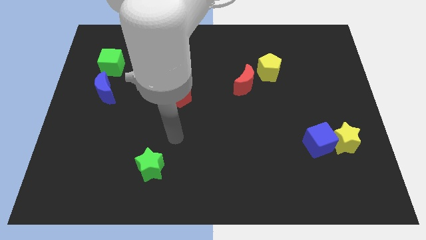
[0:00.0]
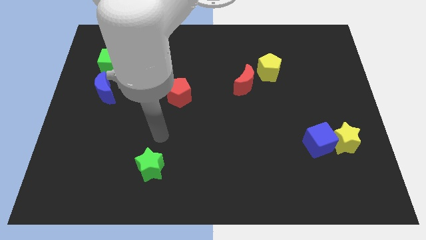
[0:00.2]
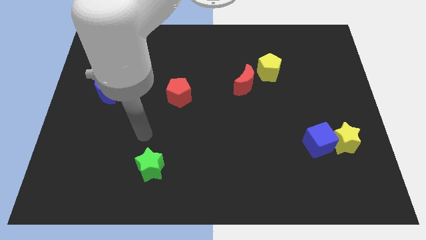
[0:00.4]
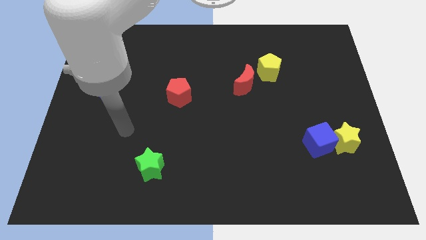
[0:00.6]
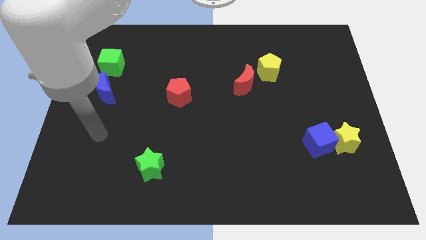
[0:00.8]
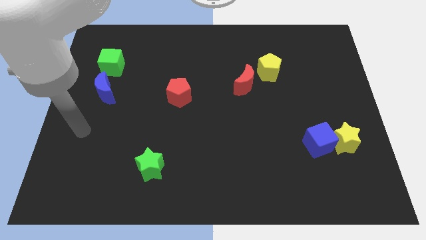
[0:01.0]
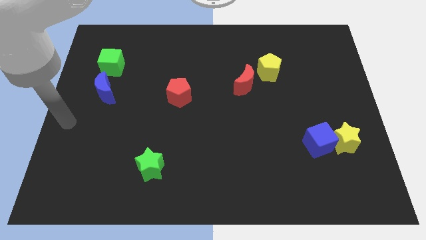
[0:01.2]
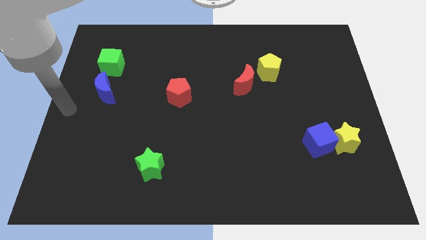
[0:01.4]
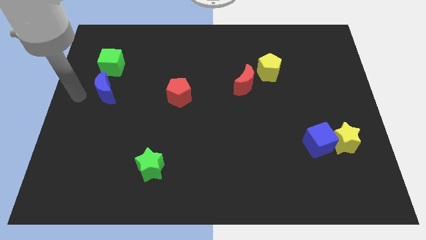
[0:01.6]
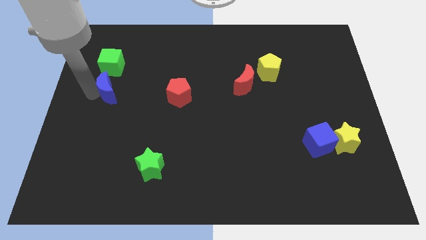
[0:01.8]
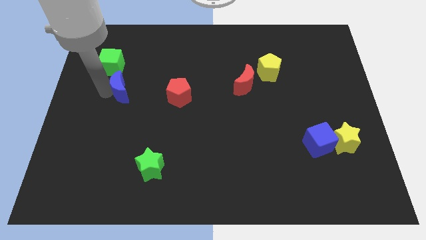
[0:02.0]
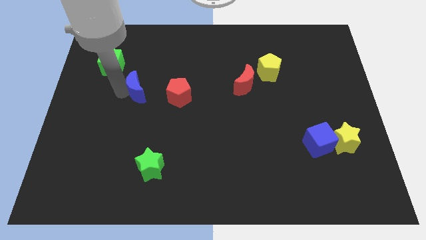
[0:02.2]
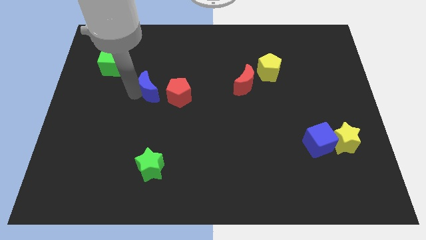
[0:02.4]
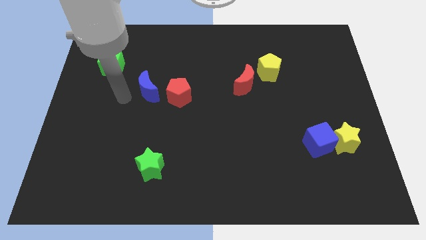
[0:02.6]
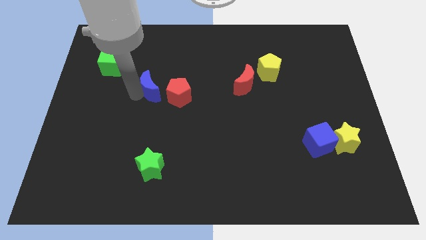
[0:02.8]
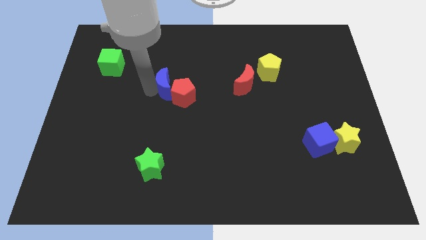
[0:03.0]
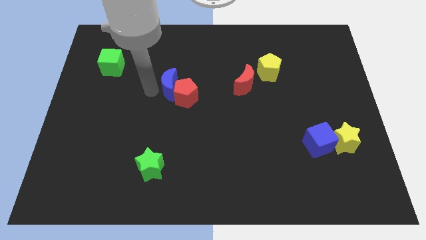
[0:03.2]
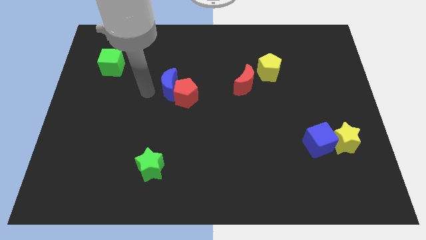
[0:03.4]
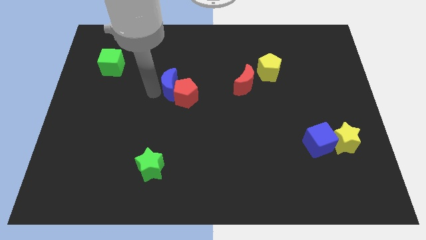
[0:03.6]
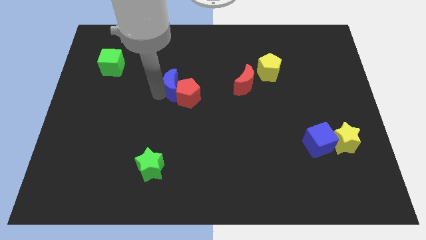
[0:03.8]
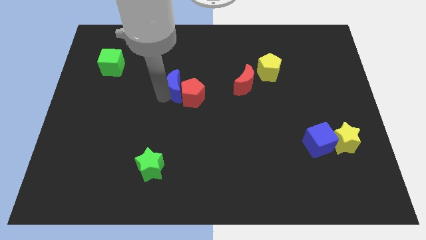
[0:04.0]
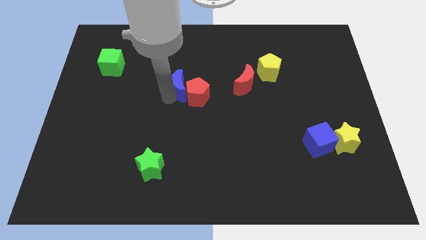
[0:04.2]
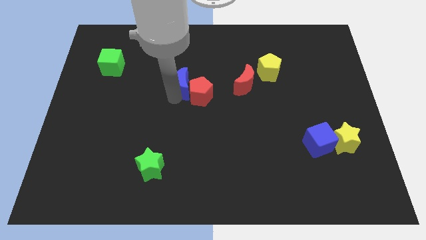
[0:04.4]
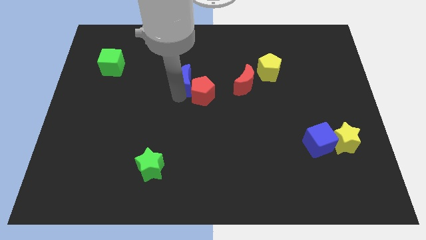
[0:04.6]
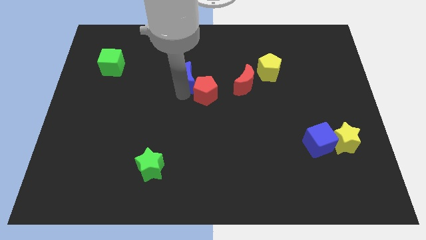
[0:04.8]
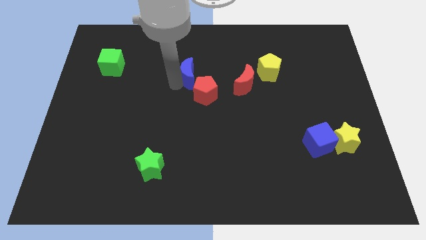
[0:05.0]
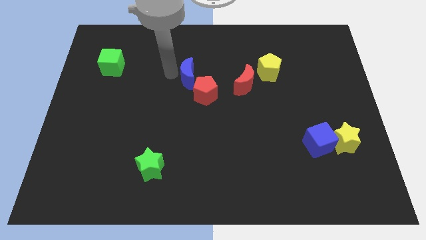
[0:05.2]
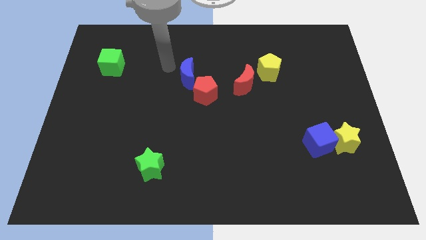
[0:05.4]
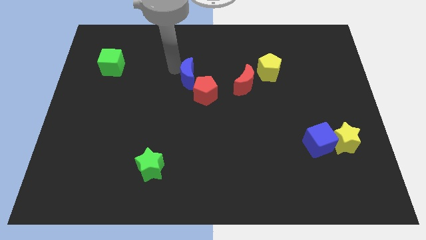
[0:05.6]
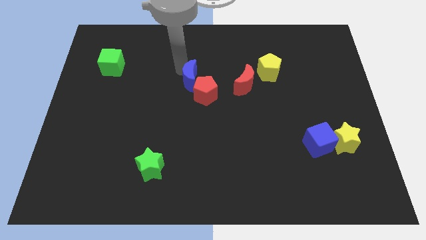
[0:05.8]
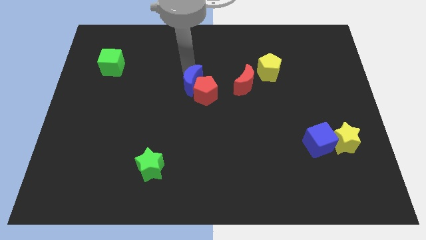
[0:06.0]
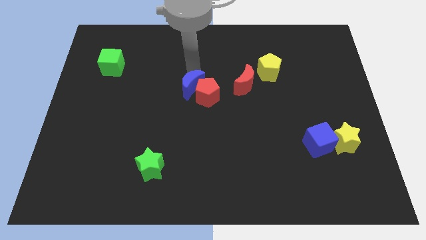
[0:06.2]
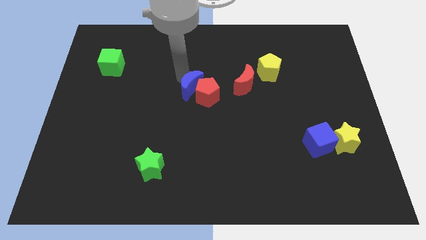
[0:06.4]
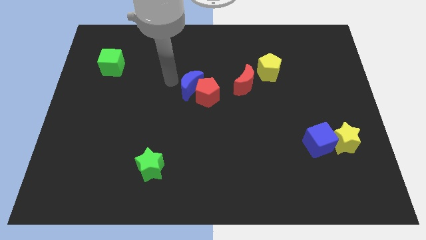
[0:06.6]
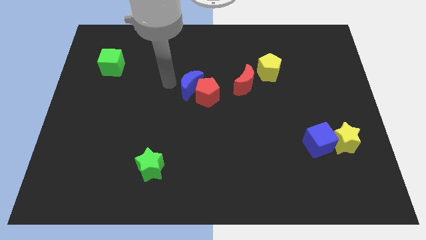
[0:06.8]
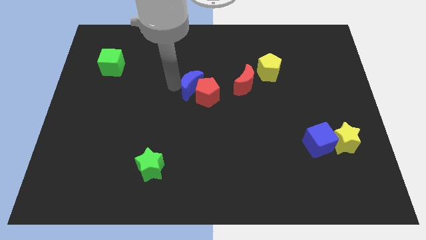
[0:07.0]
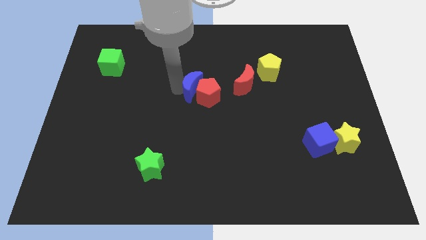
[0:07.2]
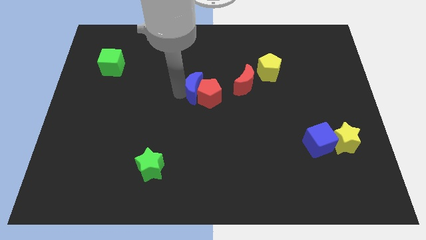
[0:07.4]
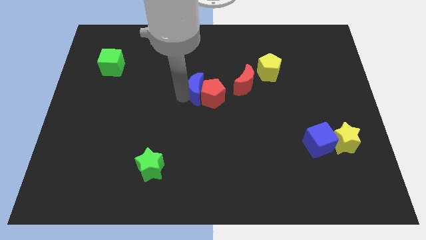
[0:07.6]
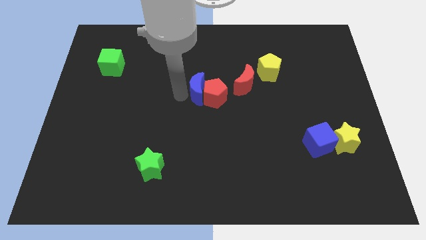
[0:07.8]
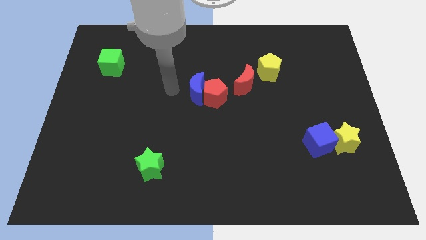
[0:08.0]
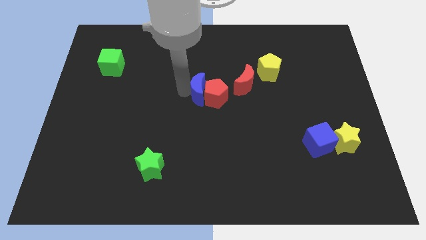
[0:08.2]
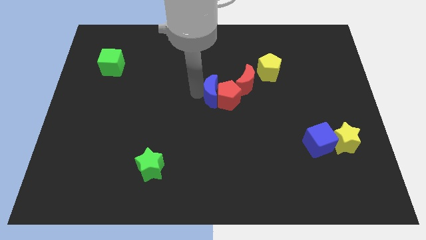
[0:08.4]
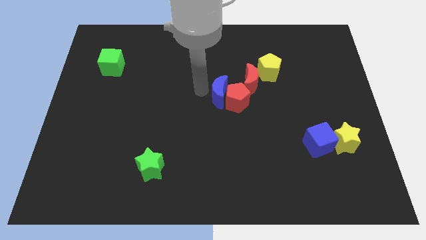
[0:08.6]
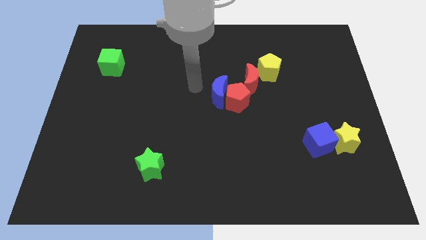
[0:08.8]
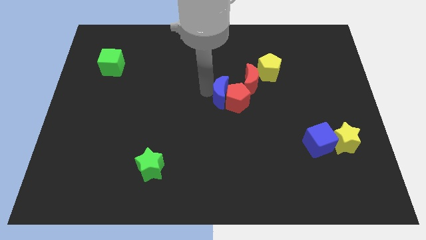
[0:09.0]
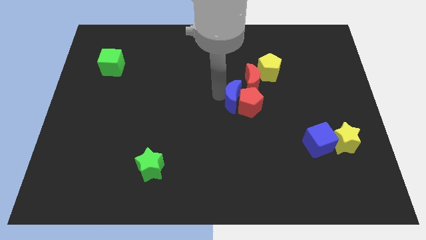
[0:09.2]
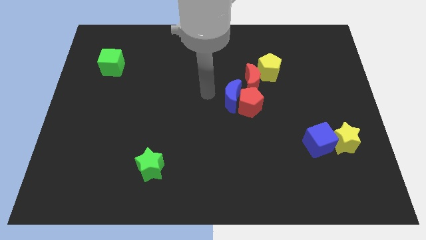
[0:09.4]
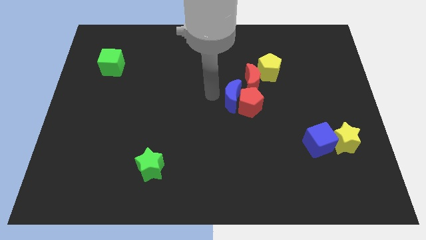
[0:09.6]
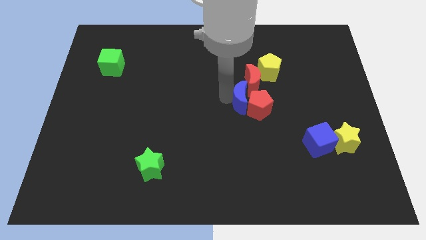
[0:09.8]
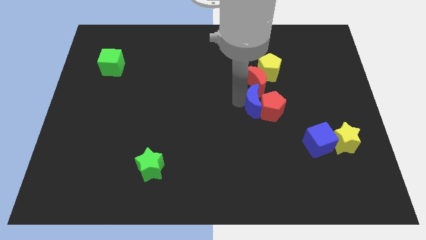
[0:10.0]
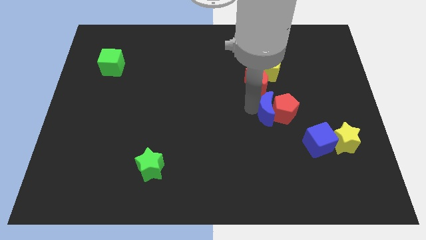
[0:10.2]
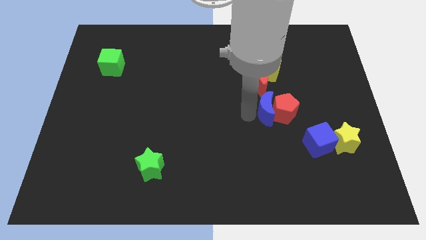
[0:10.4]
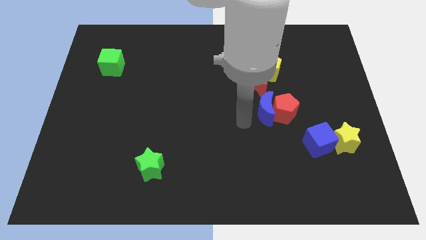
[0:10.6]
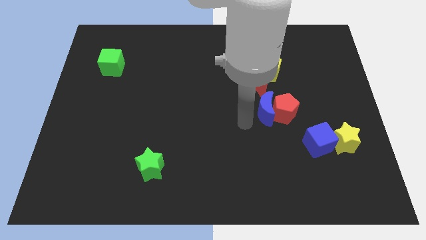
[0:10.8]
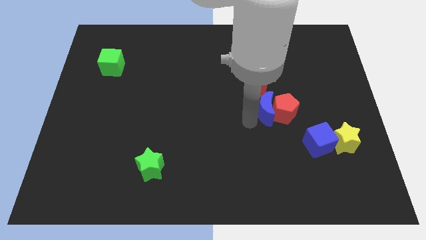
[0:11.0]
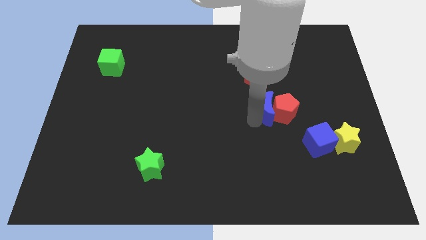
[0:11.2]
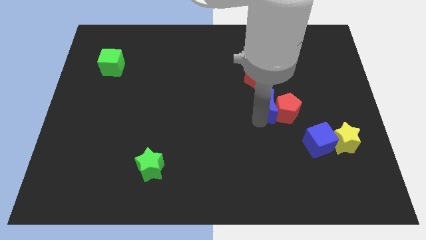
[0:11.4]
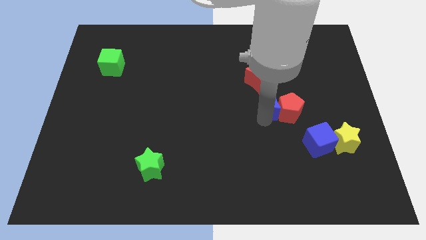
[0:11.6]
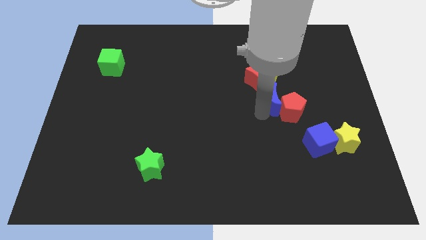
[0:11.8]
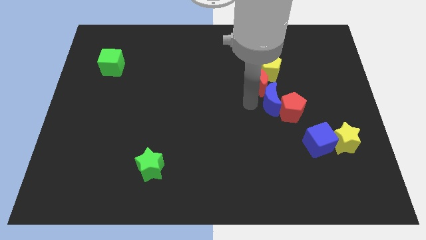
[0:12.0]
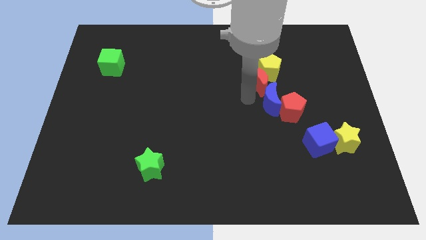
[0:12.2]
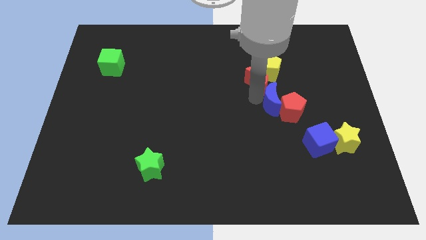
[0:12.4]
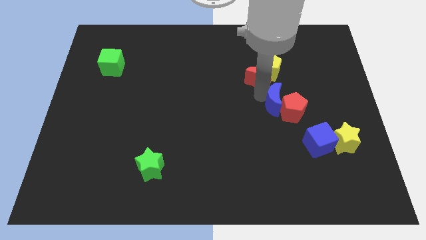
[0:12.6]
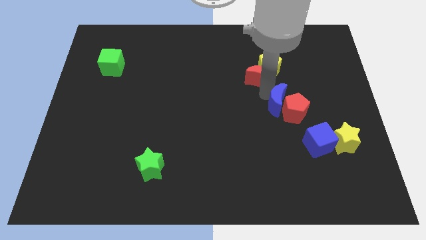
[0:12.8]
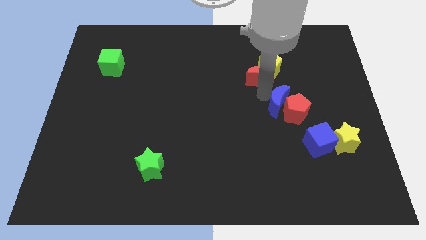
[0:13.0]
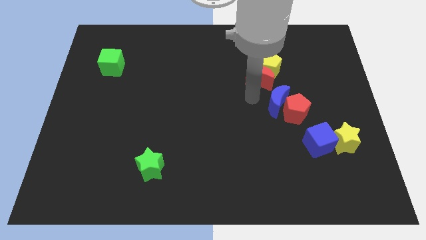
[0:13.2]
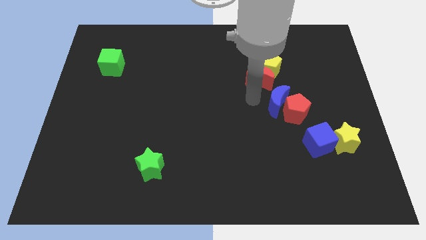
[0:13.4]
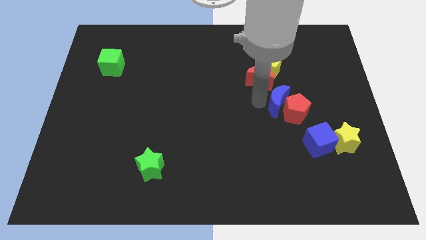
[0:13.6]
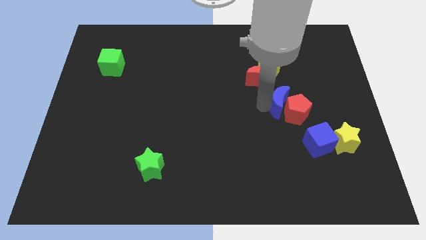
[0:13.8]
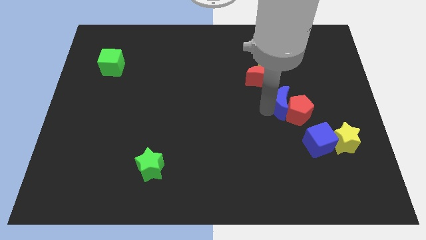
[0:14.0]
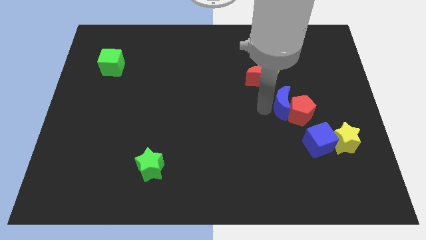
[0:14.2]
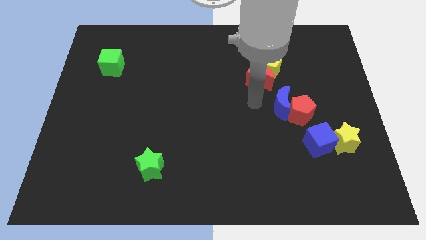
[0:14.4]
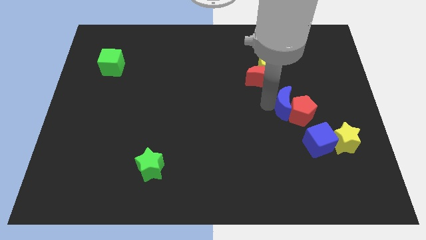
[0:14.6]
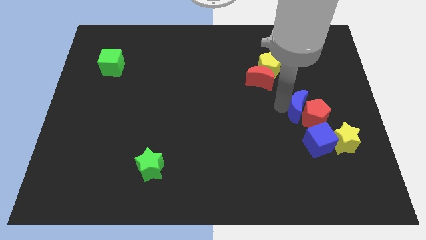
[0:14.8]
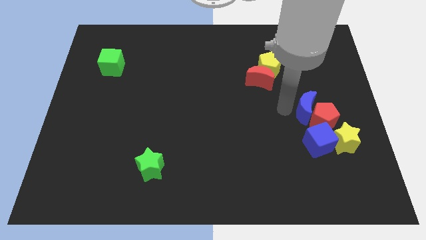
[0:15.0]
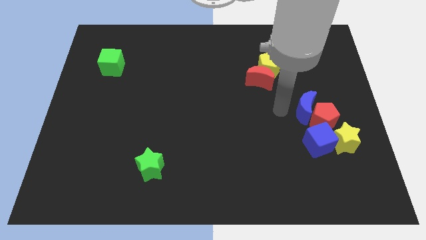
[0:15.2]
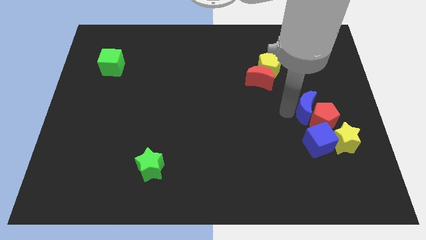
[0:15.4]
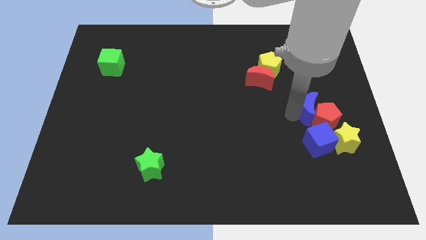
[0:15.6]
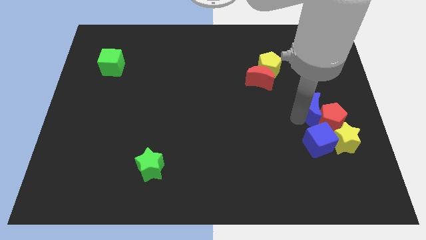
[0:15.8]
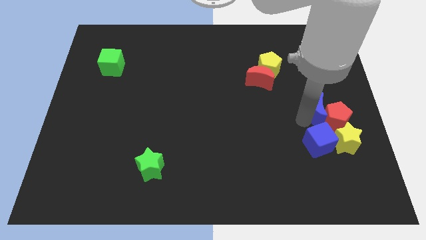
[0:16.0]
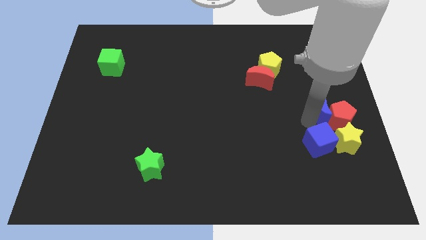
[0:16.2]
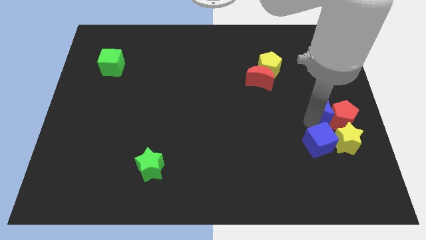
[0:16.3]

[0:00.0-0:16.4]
push the blue moon to the right side of the board
